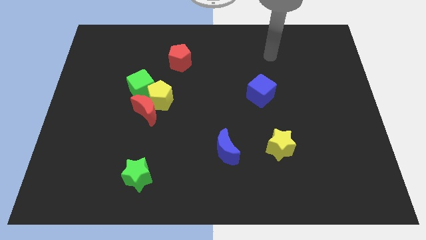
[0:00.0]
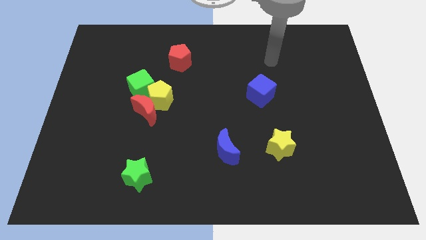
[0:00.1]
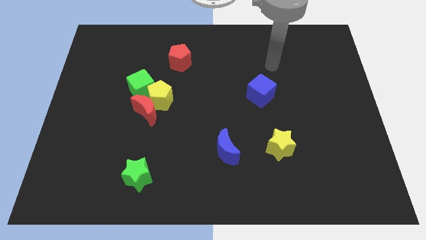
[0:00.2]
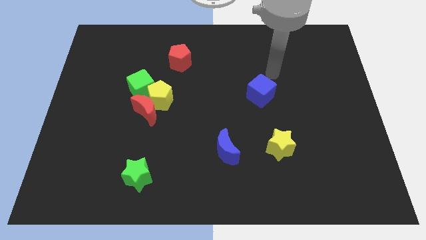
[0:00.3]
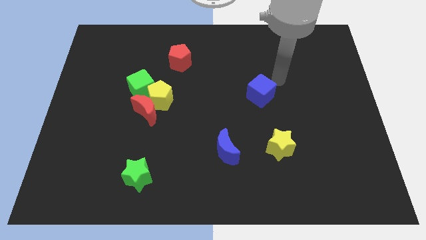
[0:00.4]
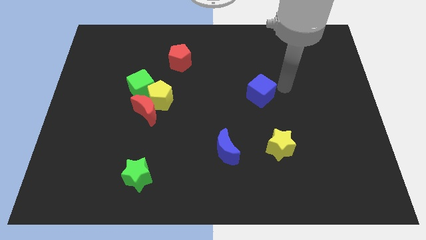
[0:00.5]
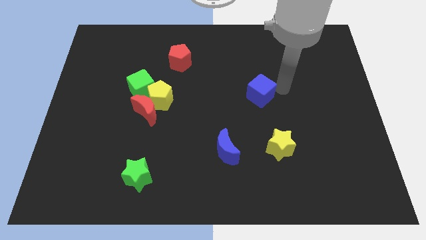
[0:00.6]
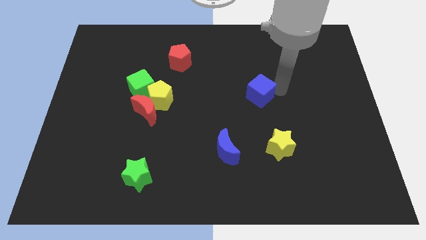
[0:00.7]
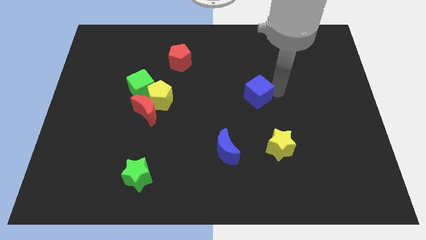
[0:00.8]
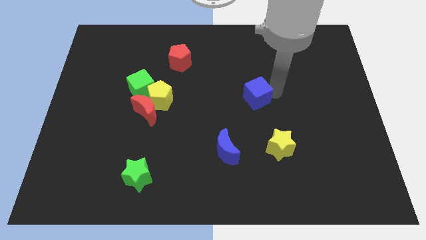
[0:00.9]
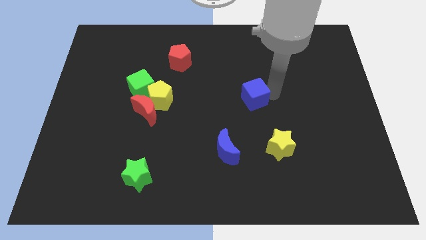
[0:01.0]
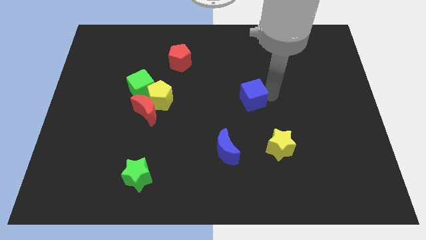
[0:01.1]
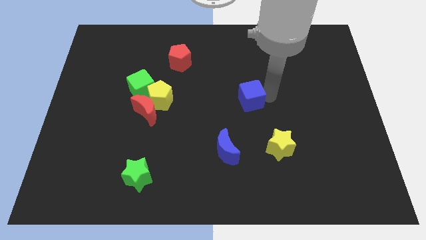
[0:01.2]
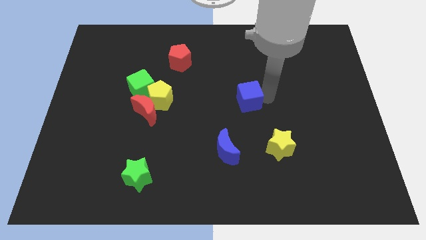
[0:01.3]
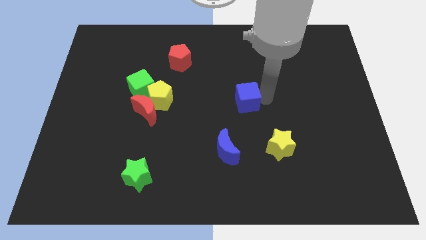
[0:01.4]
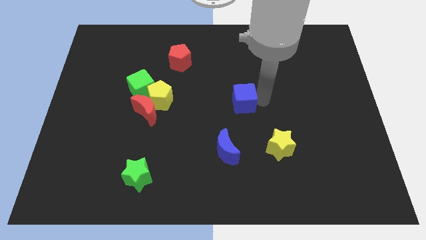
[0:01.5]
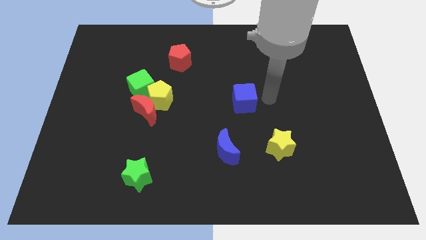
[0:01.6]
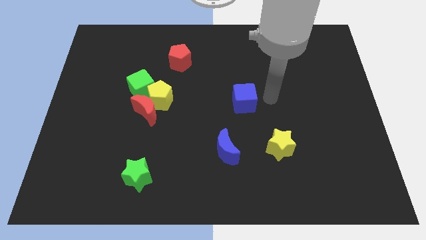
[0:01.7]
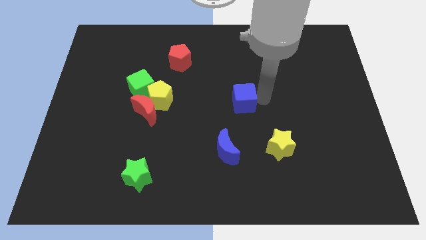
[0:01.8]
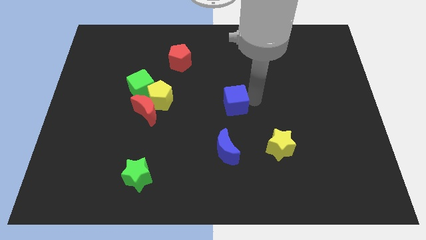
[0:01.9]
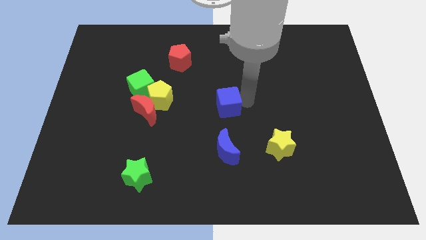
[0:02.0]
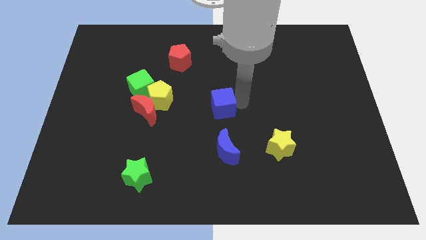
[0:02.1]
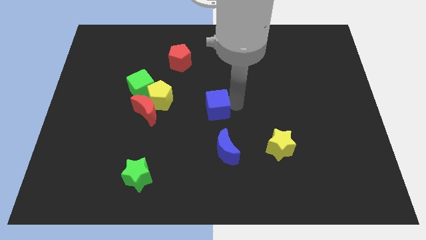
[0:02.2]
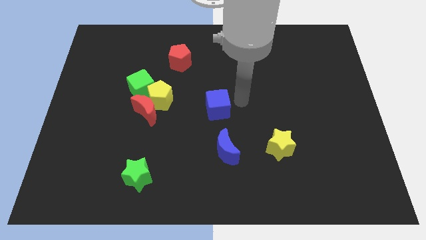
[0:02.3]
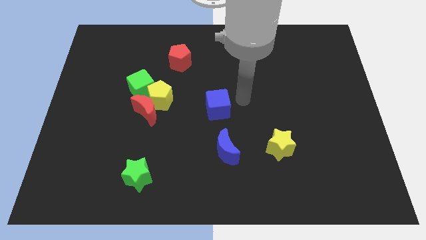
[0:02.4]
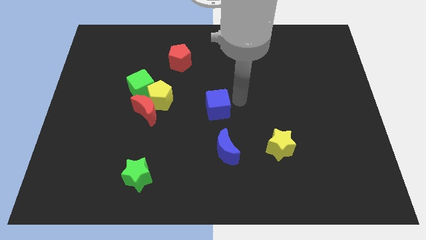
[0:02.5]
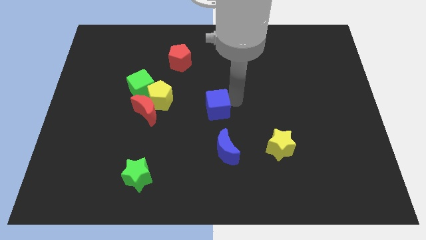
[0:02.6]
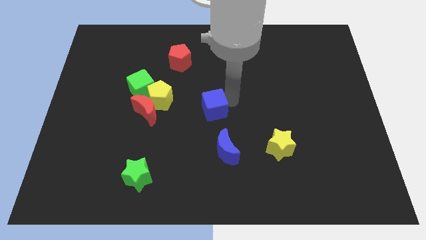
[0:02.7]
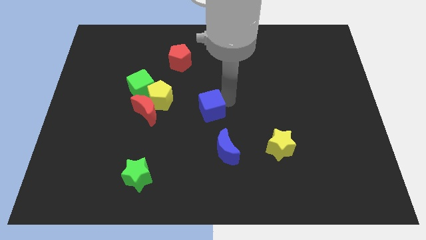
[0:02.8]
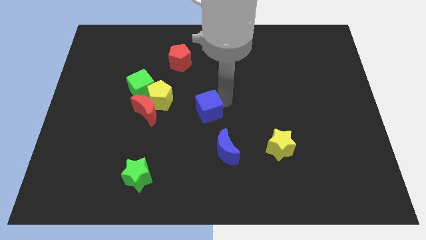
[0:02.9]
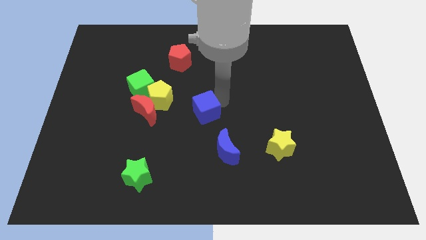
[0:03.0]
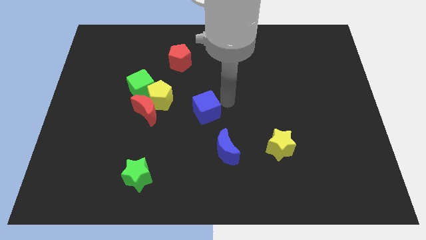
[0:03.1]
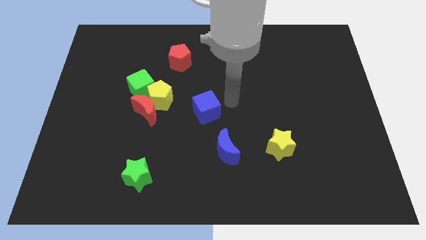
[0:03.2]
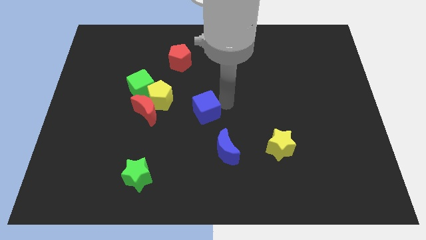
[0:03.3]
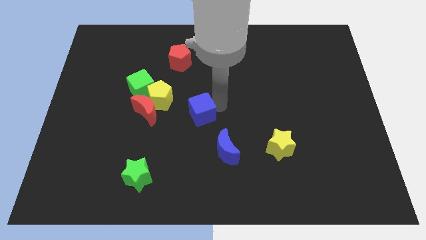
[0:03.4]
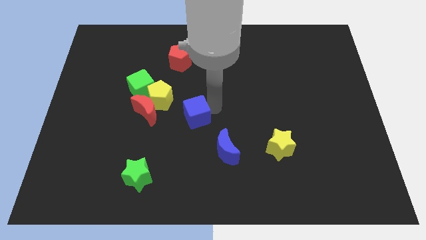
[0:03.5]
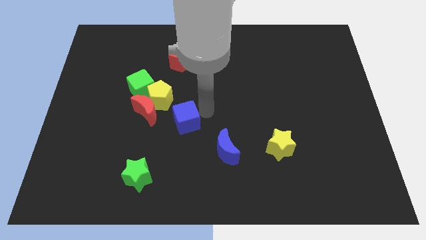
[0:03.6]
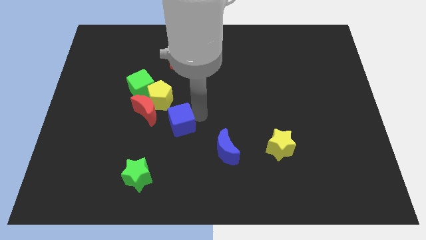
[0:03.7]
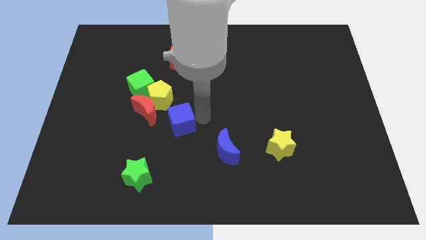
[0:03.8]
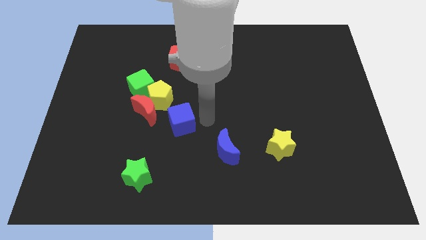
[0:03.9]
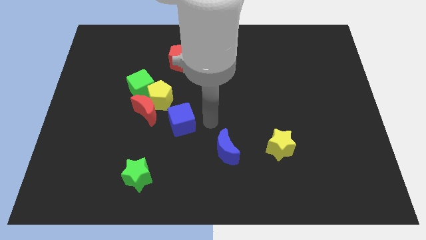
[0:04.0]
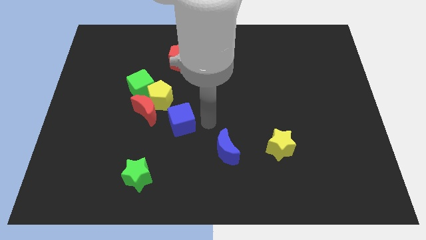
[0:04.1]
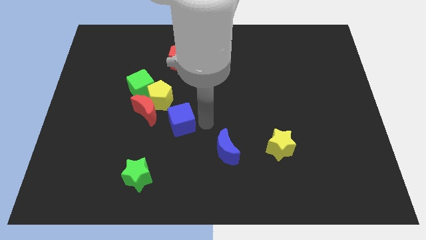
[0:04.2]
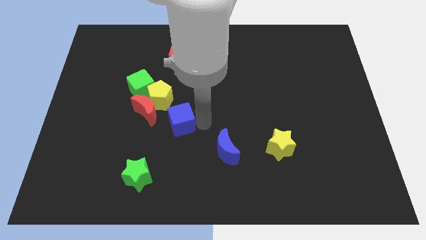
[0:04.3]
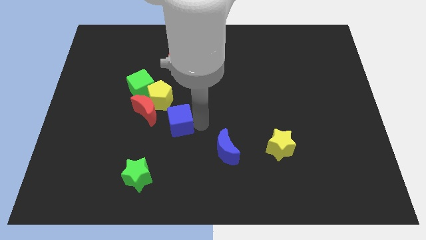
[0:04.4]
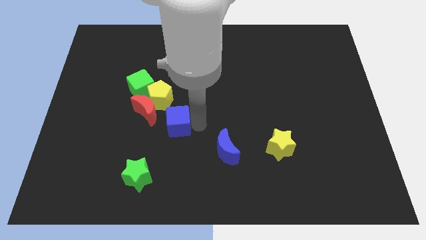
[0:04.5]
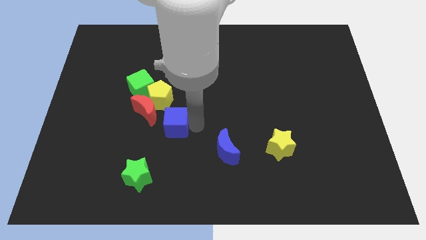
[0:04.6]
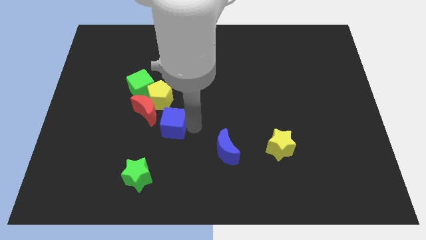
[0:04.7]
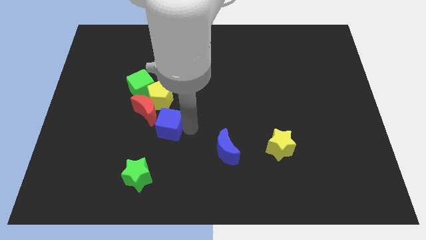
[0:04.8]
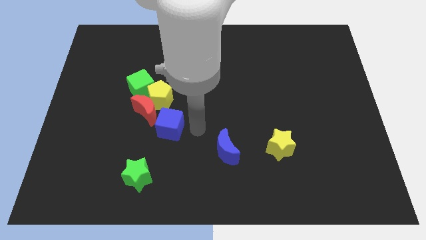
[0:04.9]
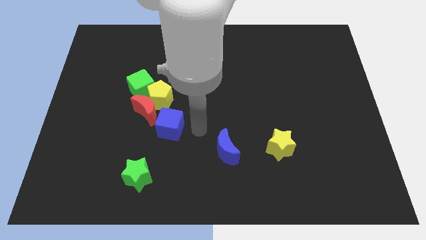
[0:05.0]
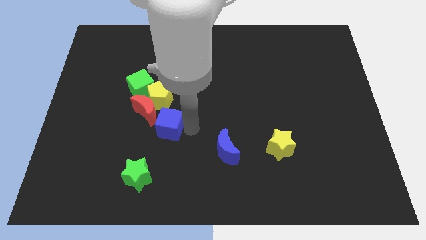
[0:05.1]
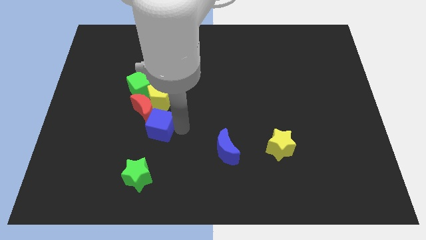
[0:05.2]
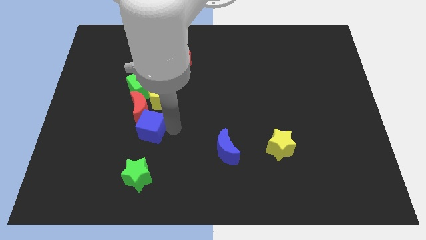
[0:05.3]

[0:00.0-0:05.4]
put the blue cube to the bottom side of the green cube

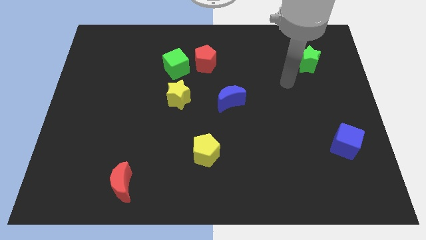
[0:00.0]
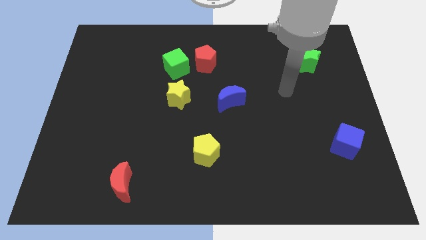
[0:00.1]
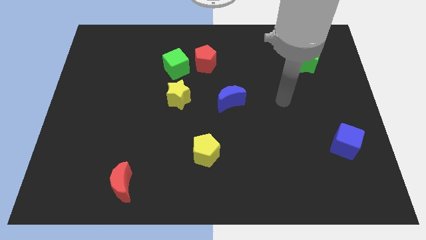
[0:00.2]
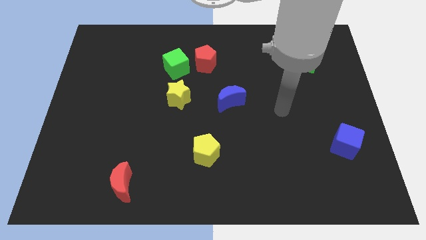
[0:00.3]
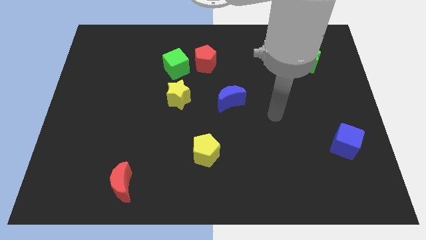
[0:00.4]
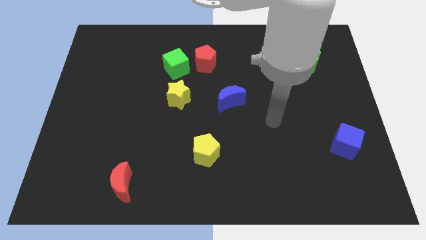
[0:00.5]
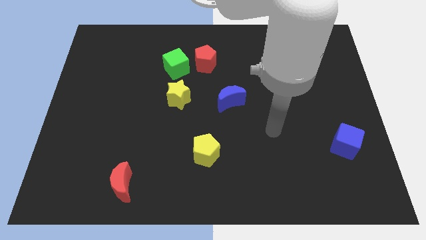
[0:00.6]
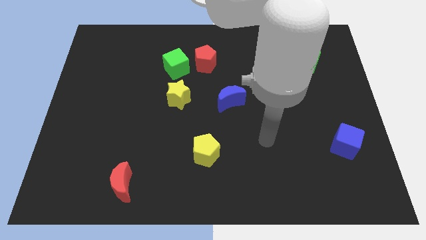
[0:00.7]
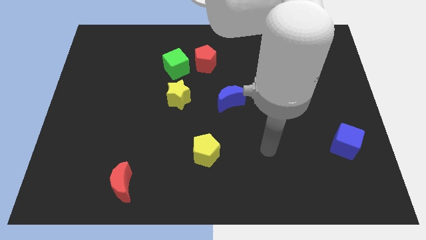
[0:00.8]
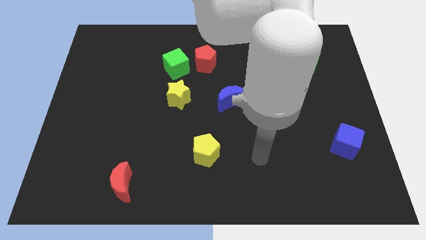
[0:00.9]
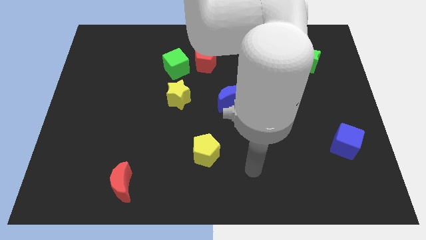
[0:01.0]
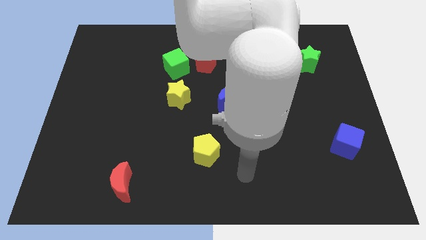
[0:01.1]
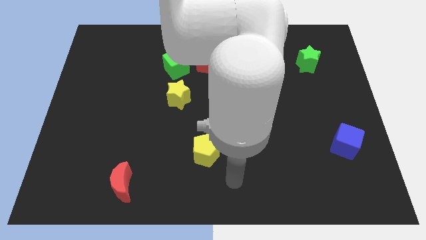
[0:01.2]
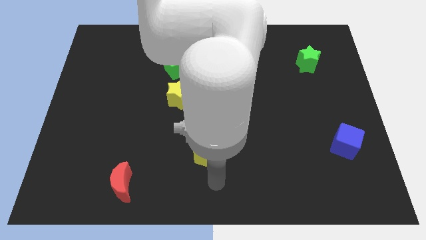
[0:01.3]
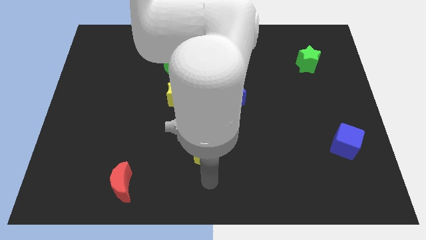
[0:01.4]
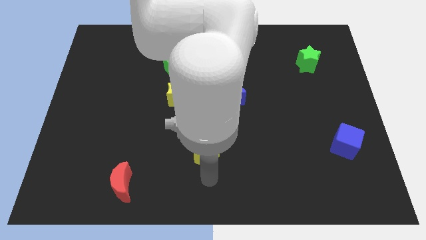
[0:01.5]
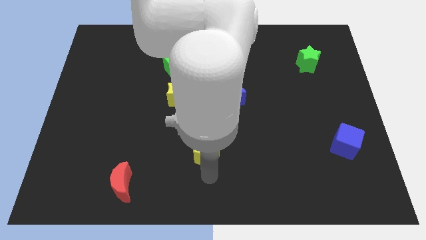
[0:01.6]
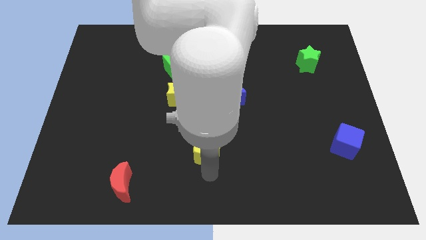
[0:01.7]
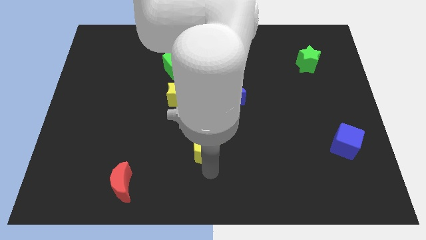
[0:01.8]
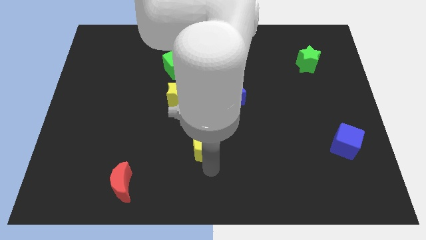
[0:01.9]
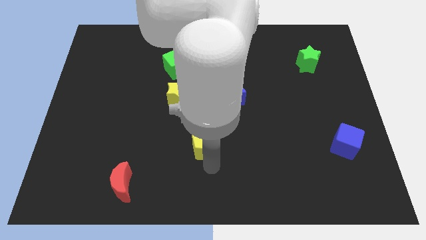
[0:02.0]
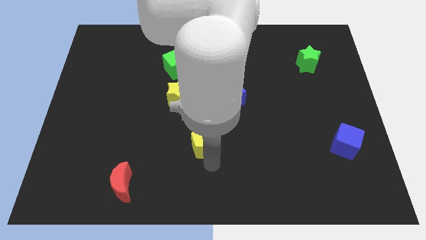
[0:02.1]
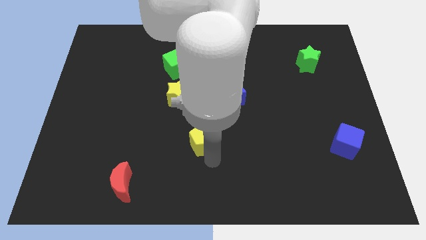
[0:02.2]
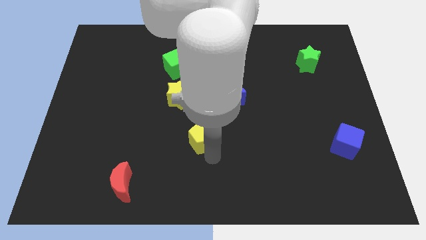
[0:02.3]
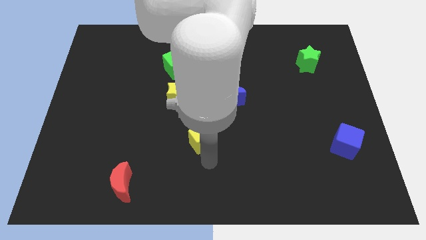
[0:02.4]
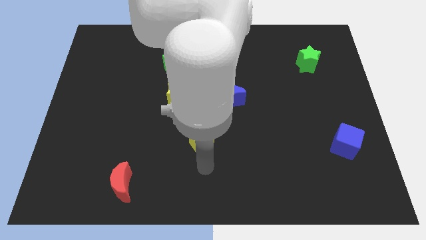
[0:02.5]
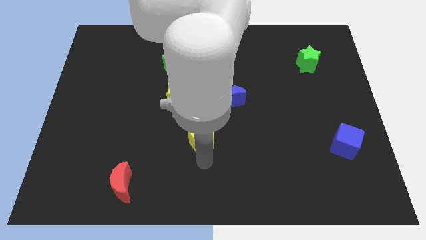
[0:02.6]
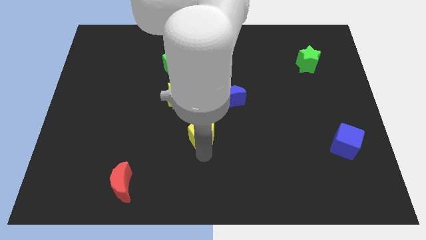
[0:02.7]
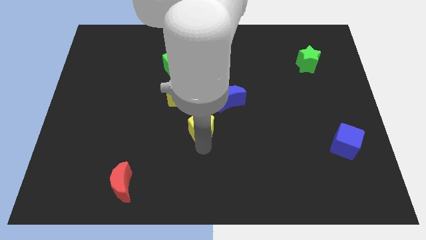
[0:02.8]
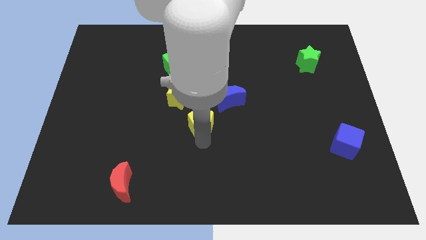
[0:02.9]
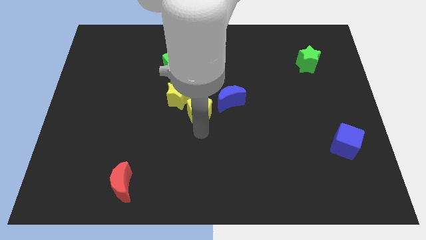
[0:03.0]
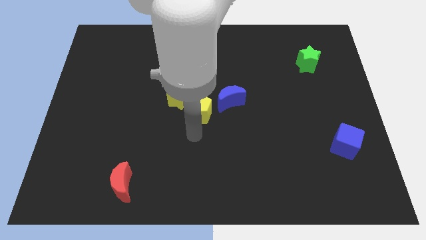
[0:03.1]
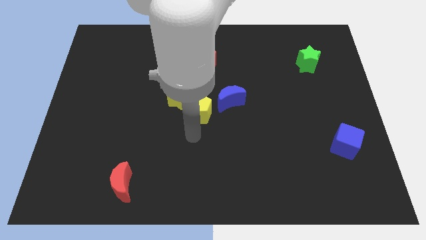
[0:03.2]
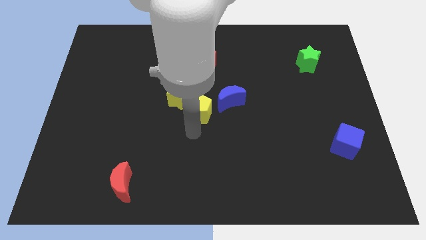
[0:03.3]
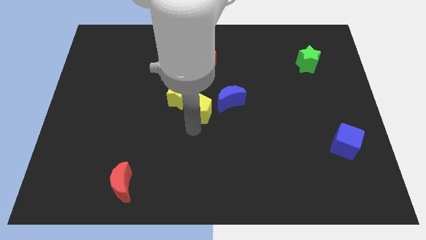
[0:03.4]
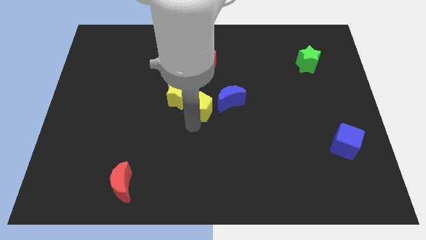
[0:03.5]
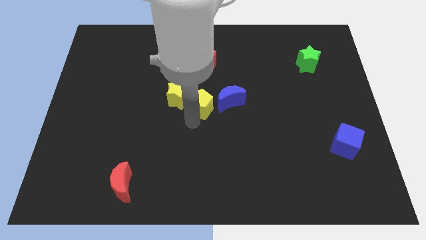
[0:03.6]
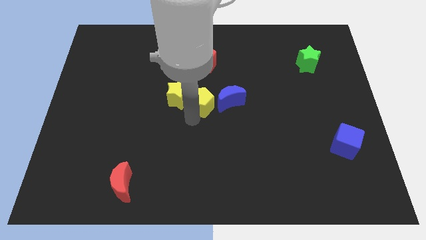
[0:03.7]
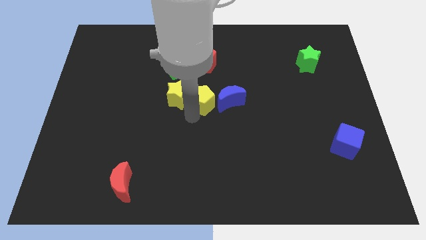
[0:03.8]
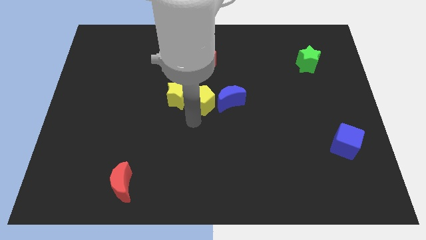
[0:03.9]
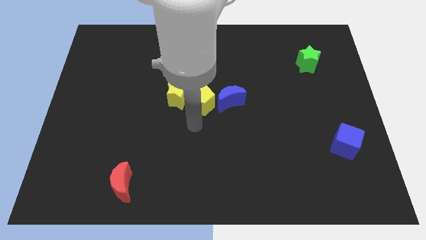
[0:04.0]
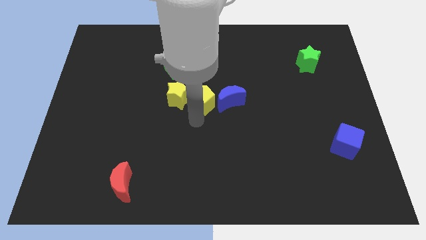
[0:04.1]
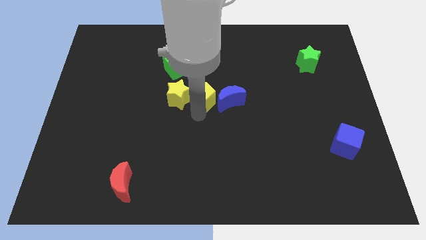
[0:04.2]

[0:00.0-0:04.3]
slide the yellow pentagon to the top left of the blue moon
